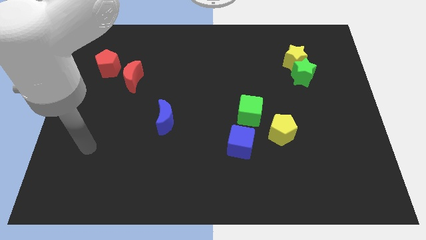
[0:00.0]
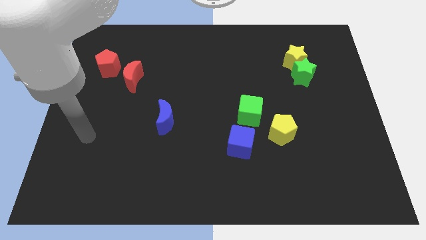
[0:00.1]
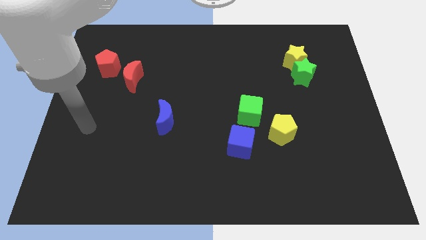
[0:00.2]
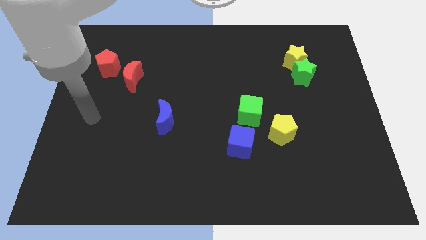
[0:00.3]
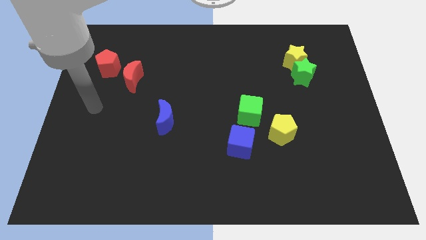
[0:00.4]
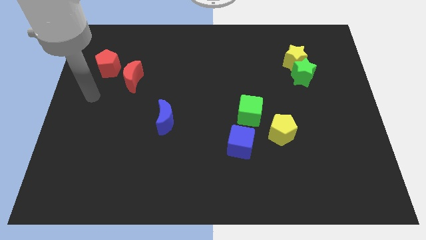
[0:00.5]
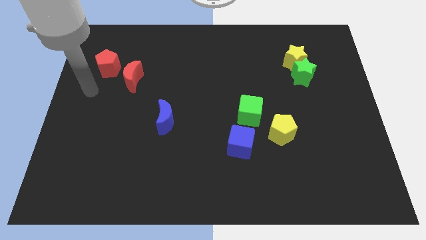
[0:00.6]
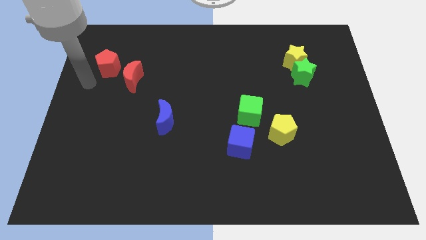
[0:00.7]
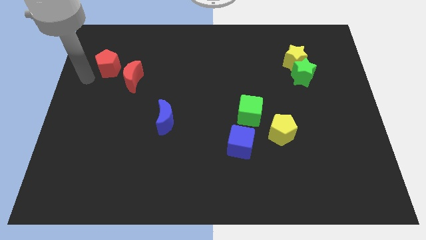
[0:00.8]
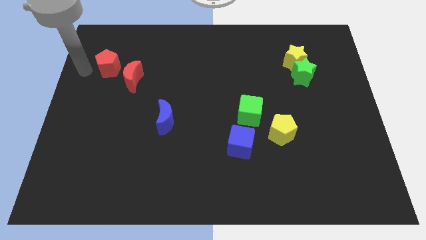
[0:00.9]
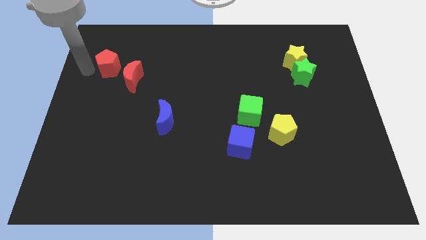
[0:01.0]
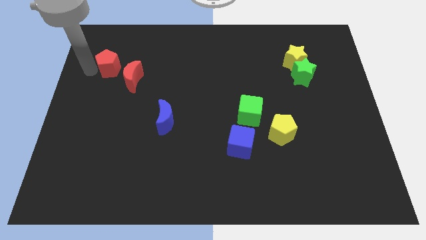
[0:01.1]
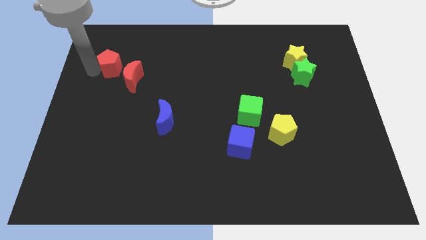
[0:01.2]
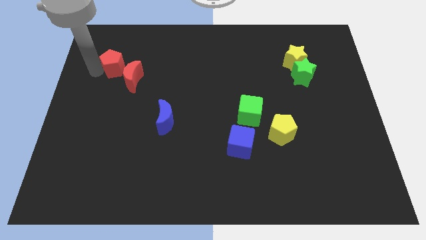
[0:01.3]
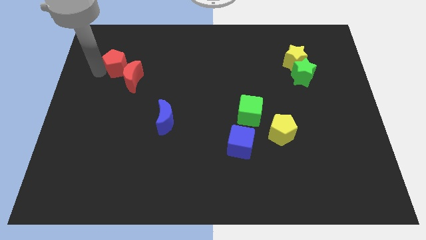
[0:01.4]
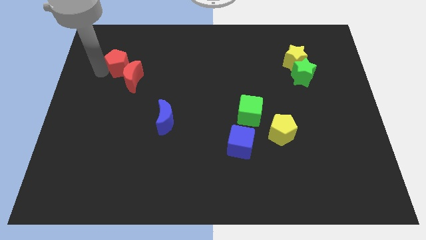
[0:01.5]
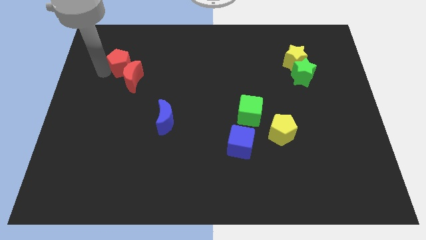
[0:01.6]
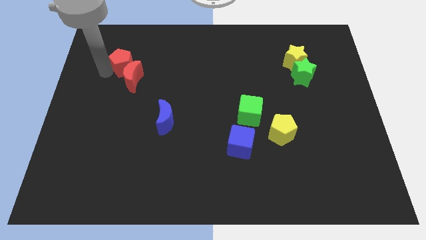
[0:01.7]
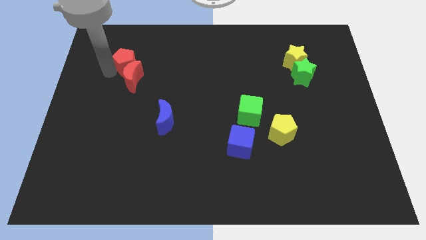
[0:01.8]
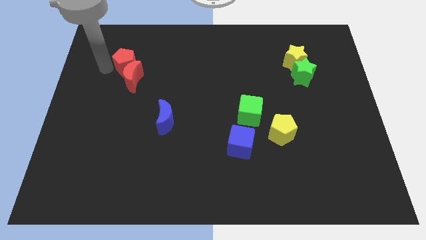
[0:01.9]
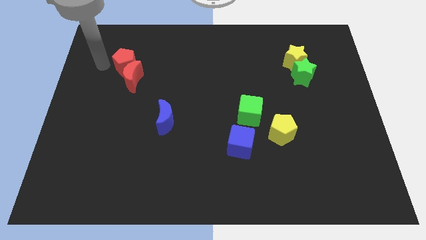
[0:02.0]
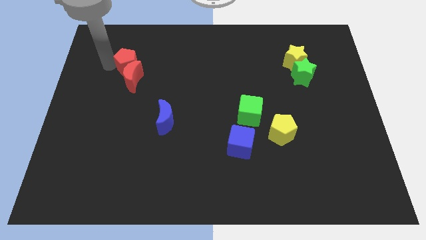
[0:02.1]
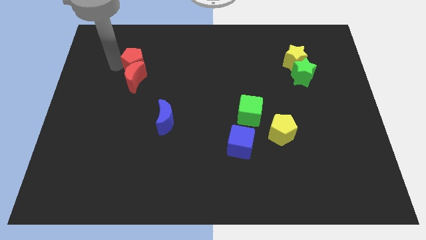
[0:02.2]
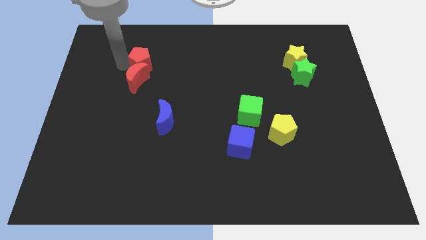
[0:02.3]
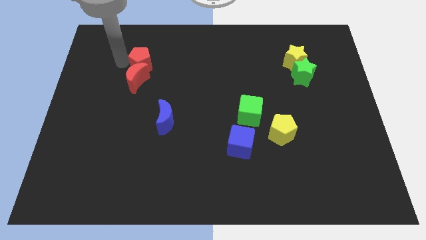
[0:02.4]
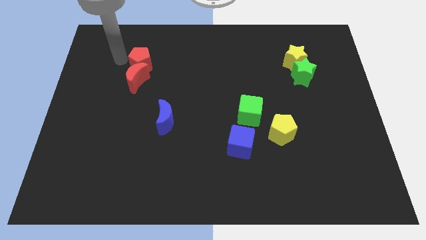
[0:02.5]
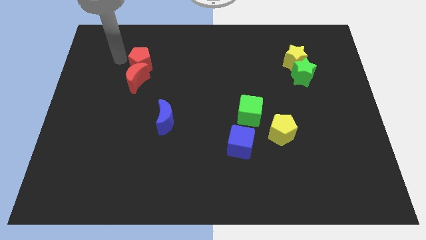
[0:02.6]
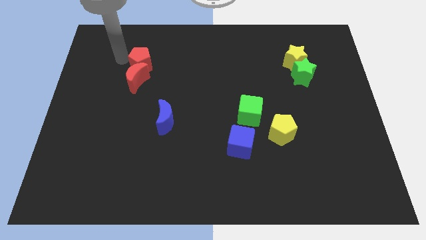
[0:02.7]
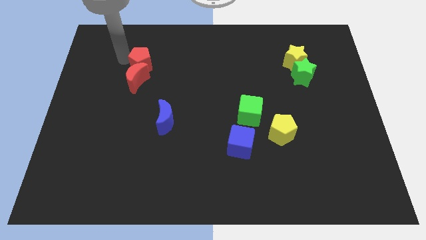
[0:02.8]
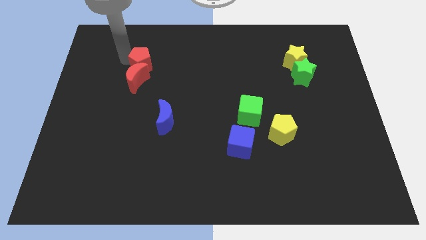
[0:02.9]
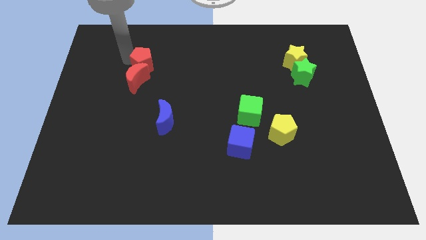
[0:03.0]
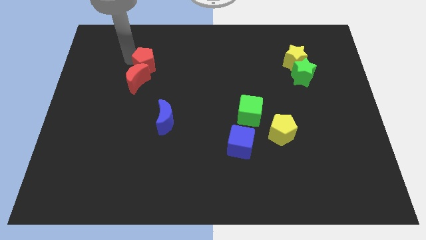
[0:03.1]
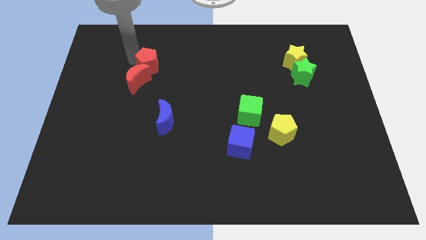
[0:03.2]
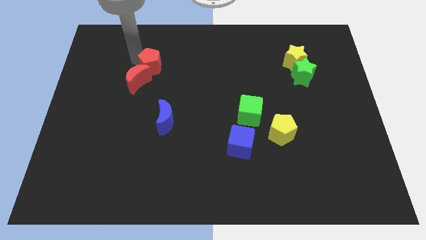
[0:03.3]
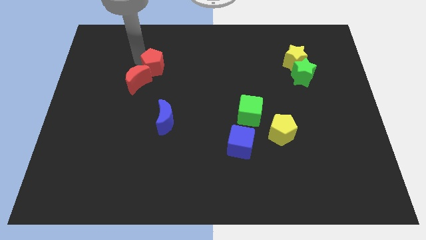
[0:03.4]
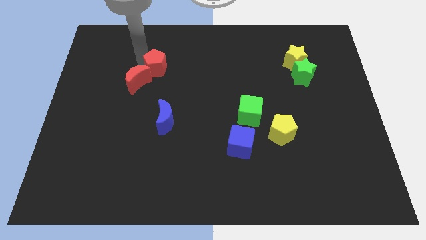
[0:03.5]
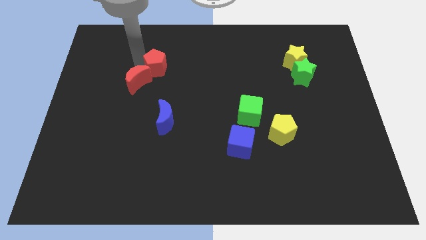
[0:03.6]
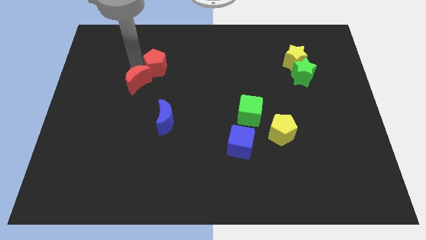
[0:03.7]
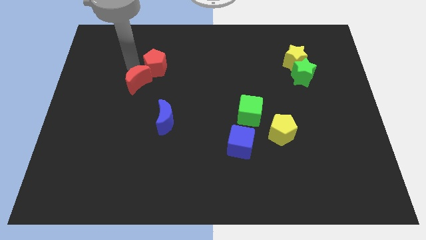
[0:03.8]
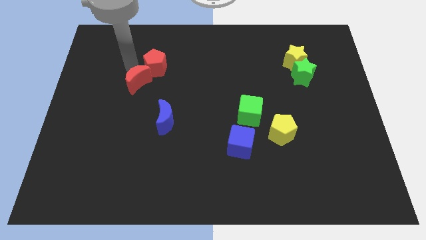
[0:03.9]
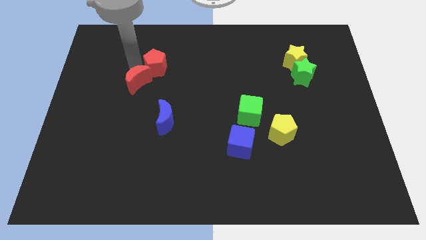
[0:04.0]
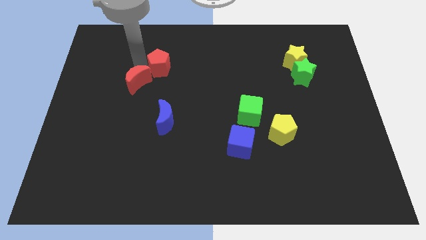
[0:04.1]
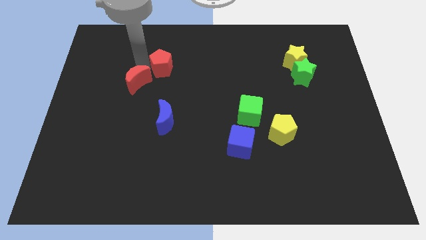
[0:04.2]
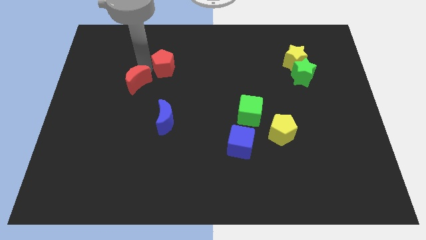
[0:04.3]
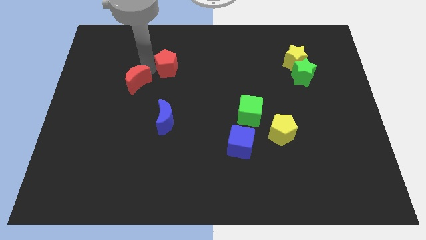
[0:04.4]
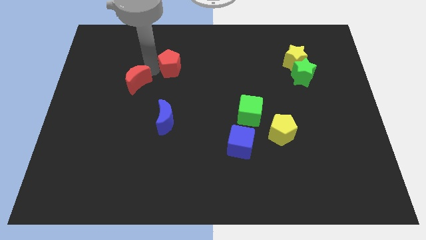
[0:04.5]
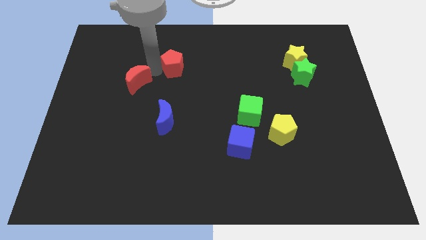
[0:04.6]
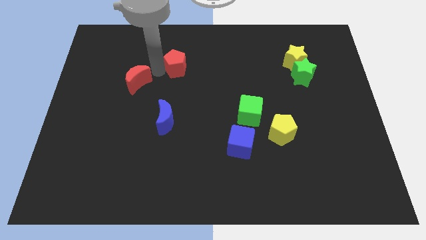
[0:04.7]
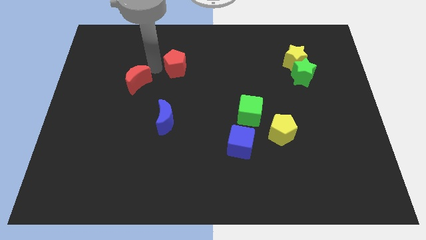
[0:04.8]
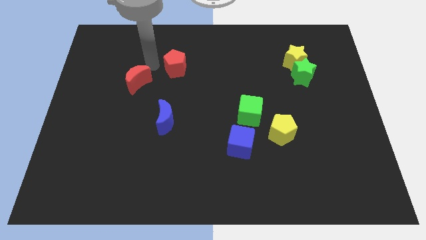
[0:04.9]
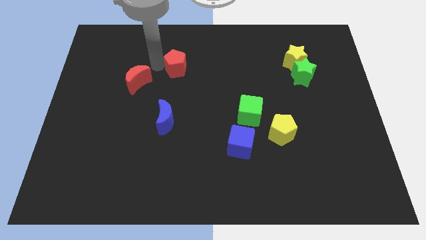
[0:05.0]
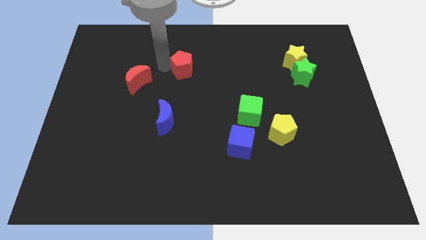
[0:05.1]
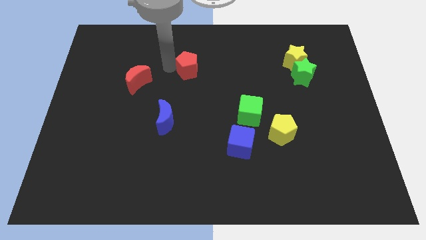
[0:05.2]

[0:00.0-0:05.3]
push the red pentagon to the right

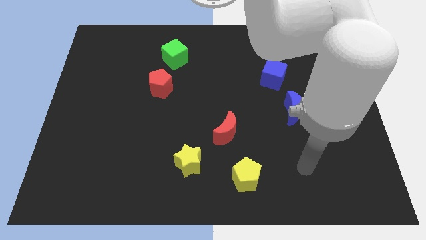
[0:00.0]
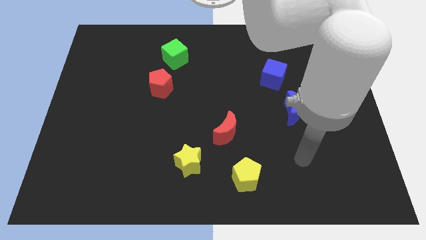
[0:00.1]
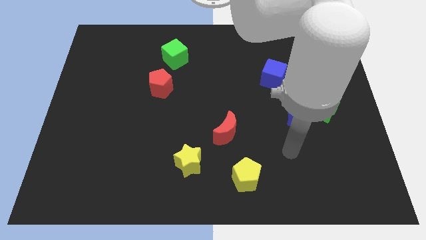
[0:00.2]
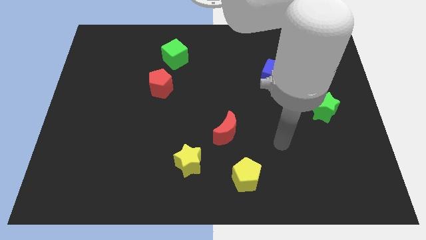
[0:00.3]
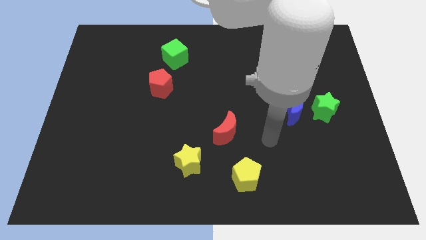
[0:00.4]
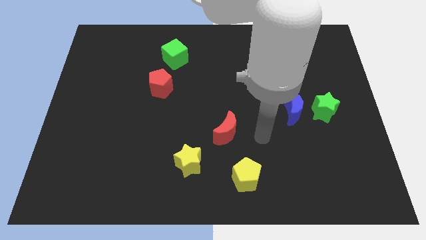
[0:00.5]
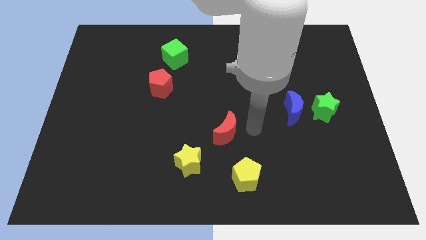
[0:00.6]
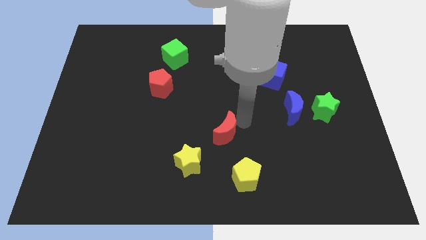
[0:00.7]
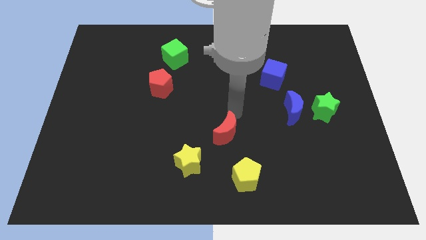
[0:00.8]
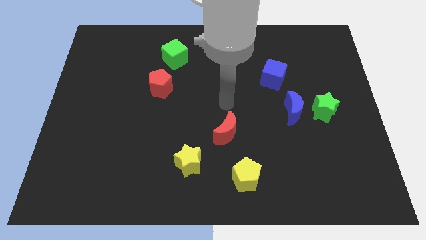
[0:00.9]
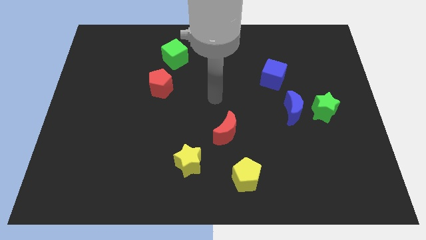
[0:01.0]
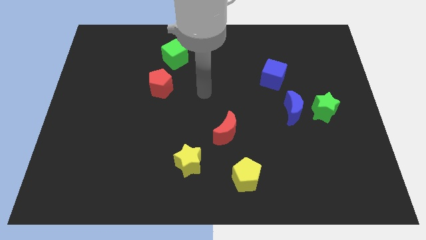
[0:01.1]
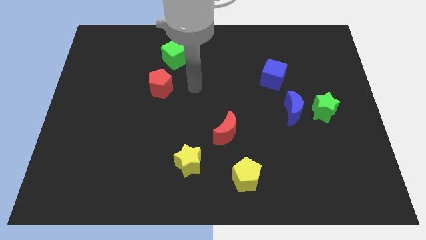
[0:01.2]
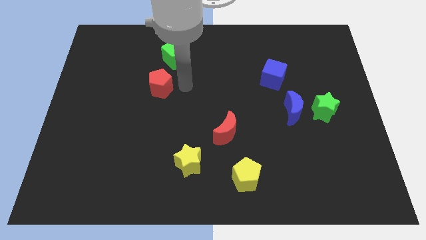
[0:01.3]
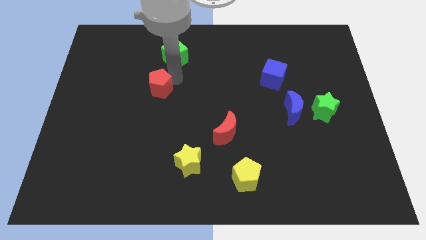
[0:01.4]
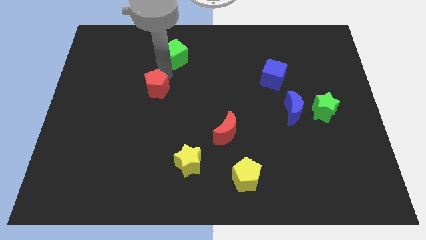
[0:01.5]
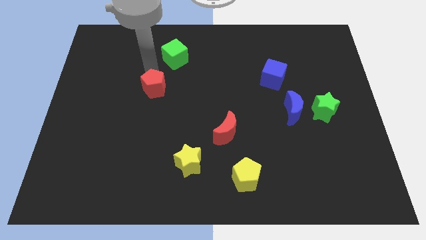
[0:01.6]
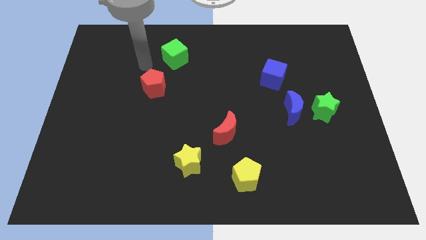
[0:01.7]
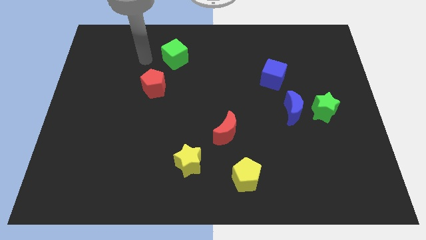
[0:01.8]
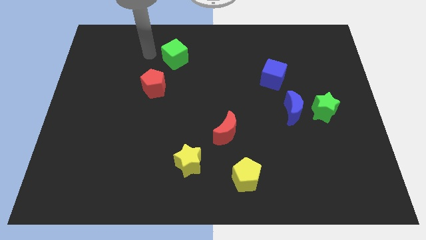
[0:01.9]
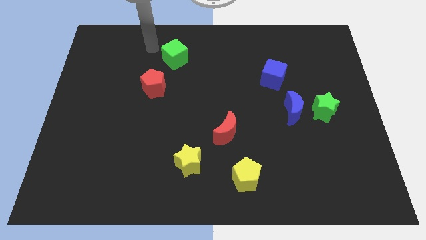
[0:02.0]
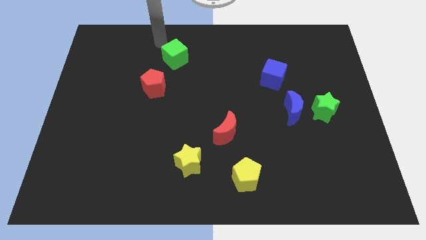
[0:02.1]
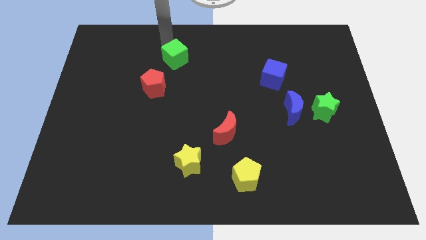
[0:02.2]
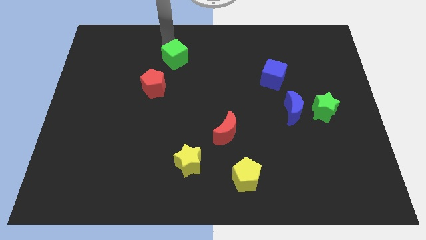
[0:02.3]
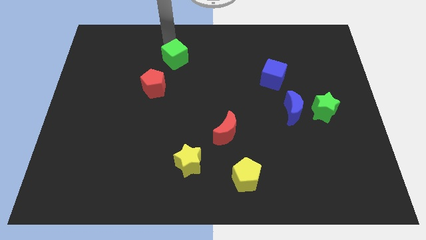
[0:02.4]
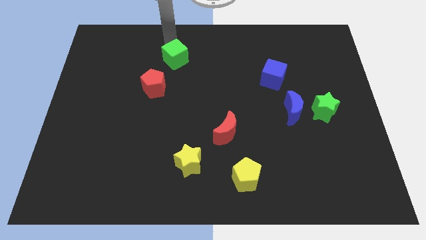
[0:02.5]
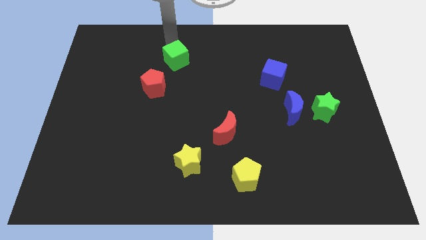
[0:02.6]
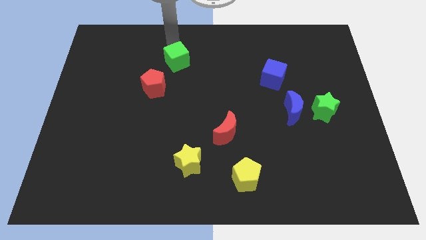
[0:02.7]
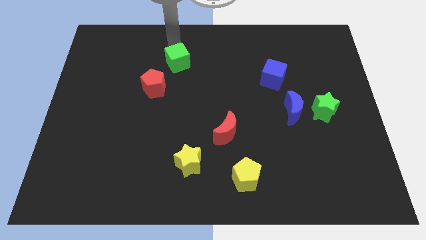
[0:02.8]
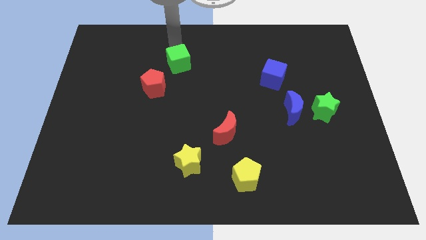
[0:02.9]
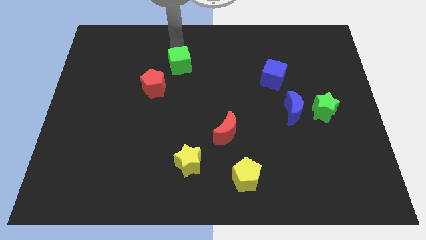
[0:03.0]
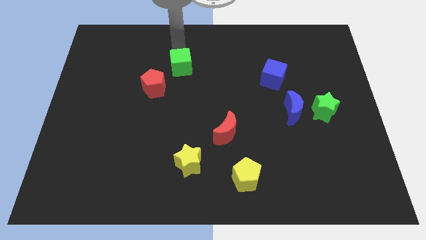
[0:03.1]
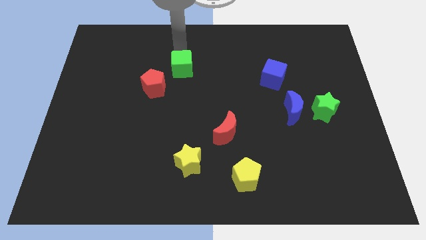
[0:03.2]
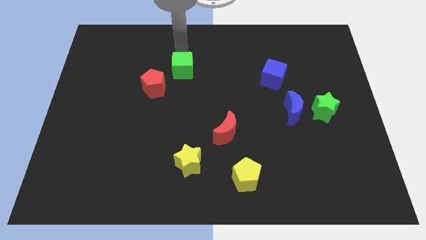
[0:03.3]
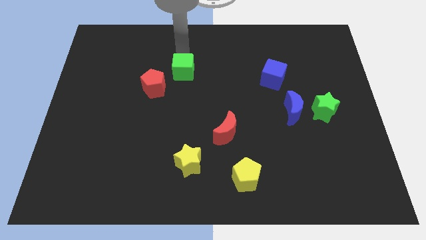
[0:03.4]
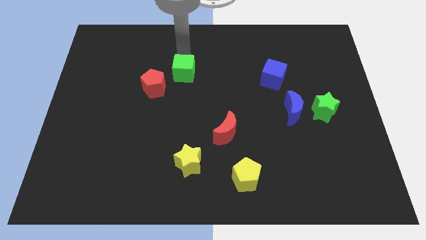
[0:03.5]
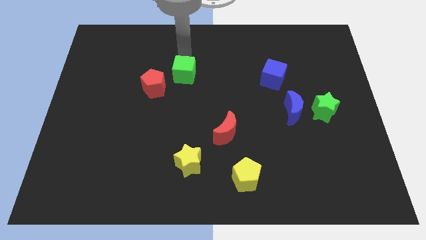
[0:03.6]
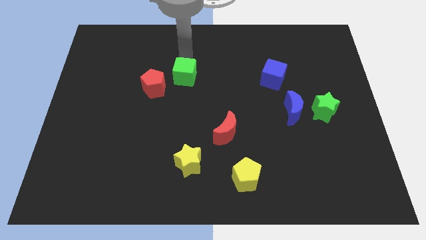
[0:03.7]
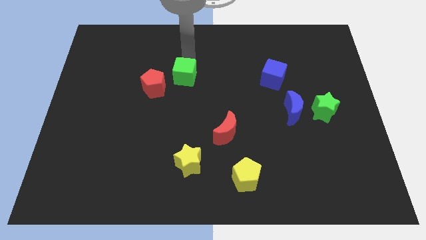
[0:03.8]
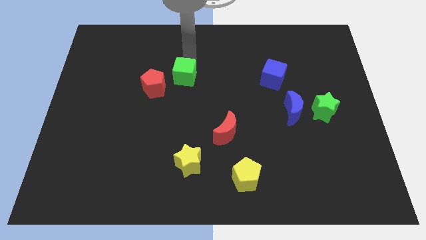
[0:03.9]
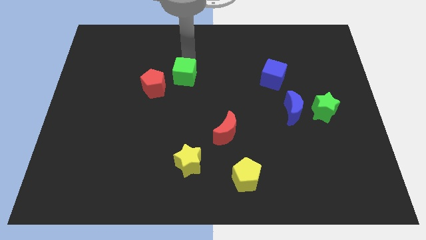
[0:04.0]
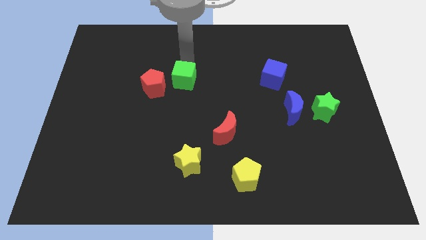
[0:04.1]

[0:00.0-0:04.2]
move the green cube downwards somewhat
